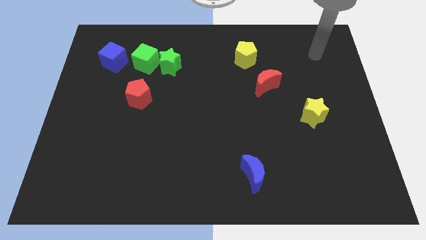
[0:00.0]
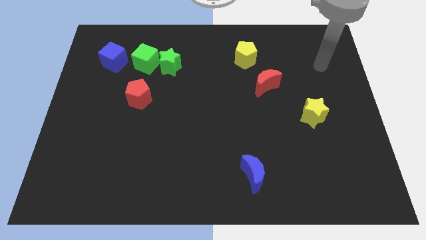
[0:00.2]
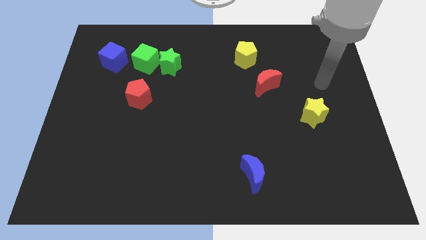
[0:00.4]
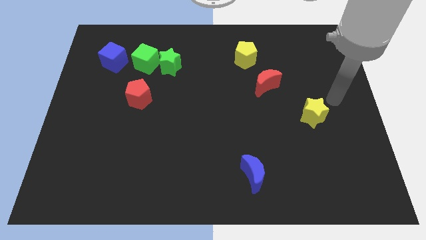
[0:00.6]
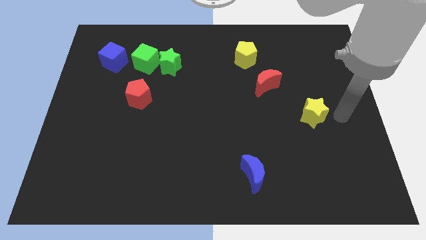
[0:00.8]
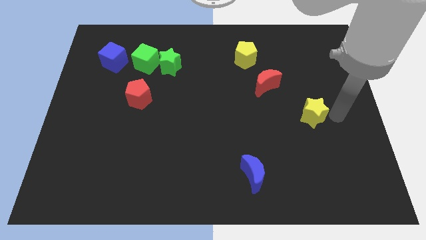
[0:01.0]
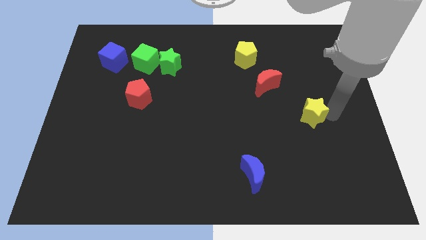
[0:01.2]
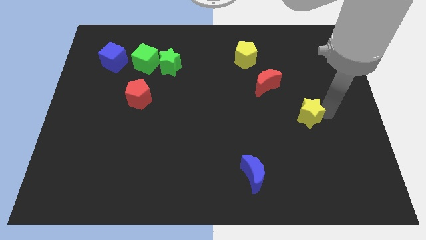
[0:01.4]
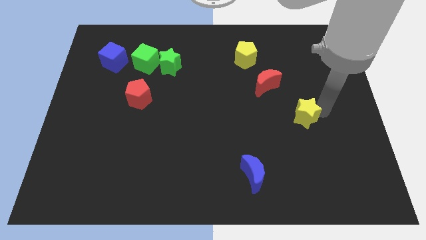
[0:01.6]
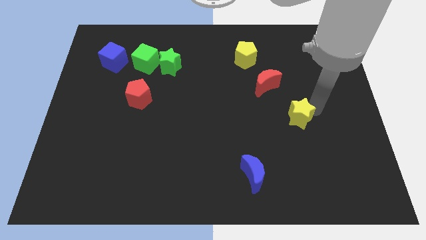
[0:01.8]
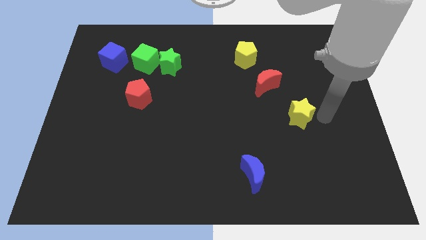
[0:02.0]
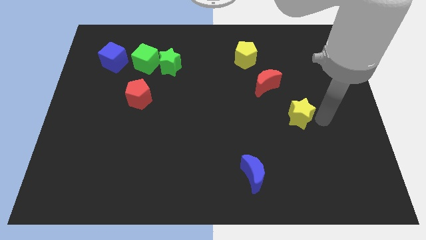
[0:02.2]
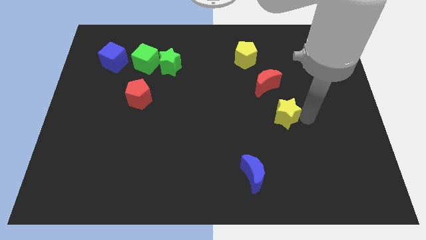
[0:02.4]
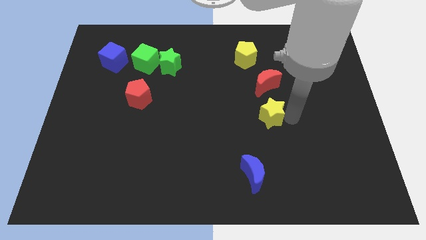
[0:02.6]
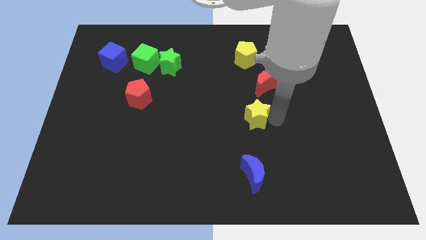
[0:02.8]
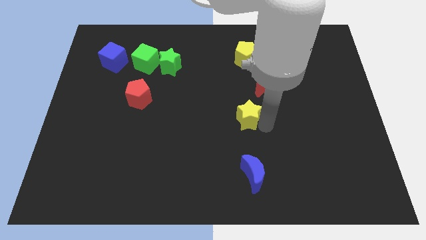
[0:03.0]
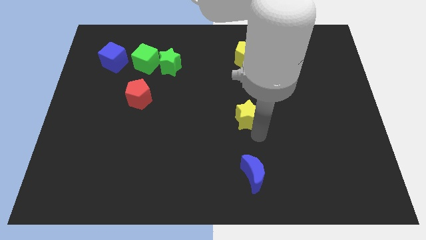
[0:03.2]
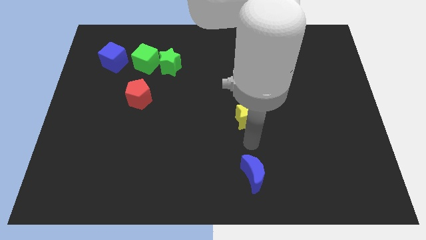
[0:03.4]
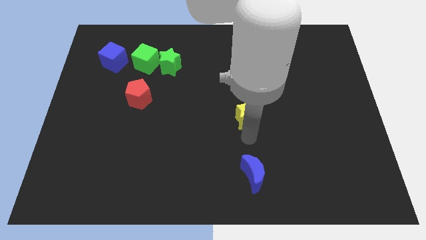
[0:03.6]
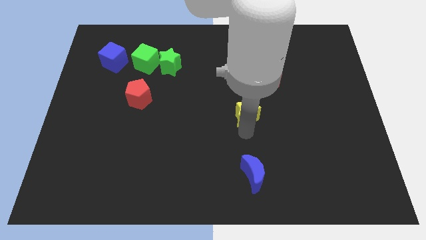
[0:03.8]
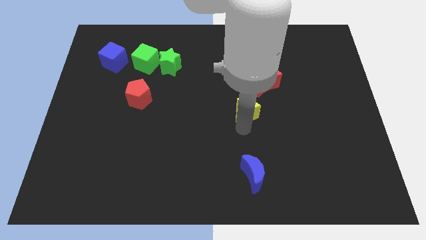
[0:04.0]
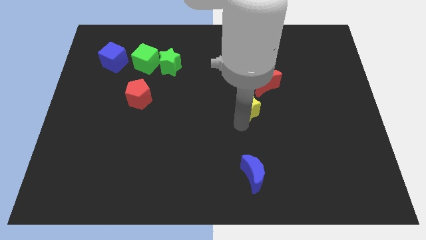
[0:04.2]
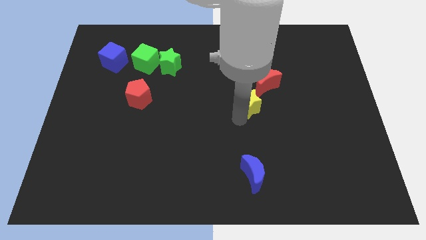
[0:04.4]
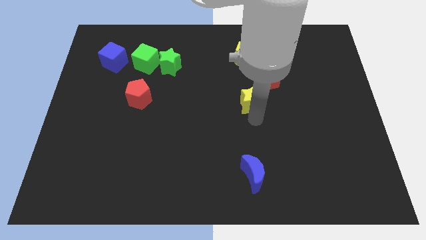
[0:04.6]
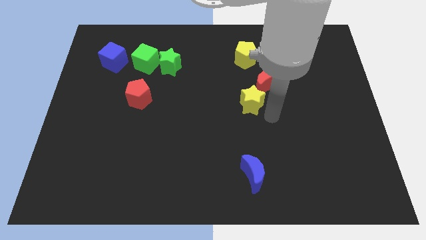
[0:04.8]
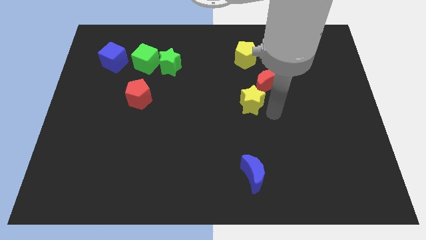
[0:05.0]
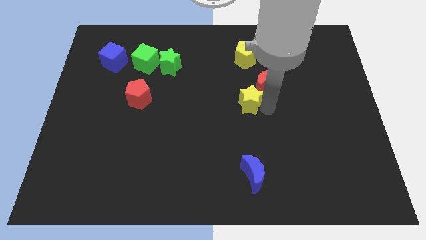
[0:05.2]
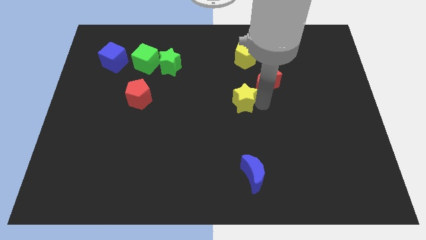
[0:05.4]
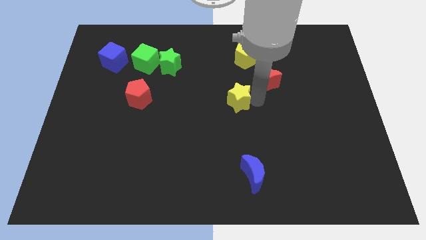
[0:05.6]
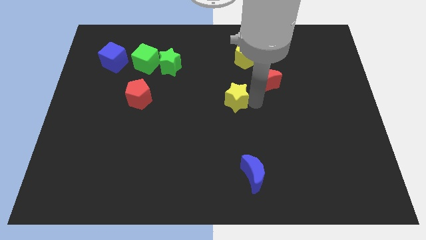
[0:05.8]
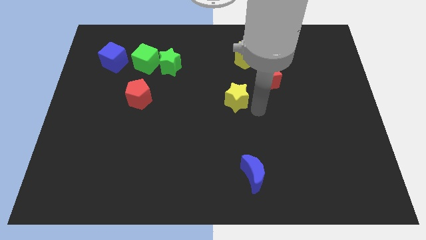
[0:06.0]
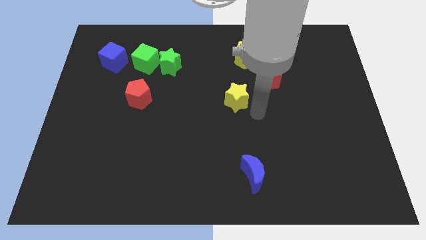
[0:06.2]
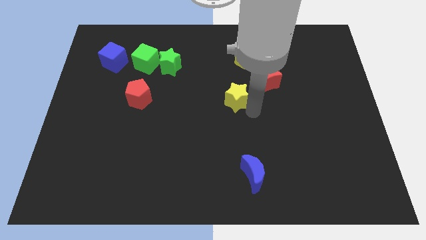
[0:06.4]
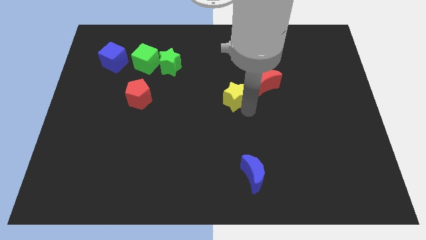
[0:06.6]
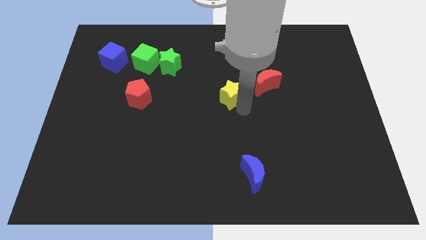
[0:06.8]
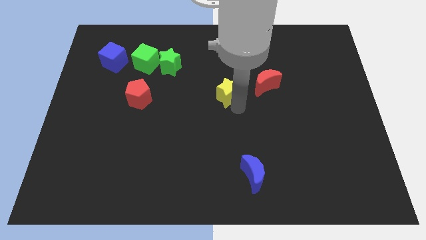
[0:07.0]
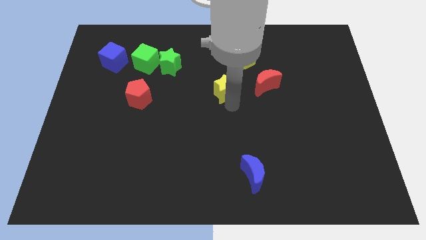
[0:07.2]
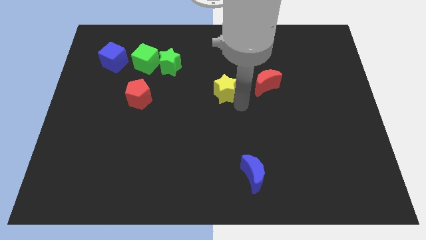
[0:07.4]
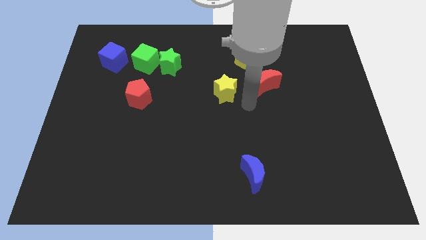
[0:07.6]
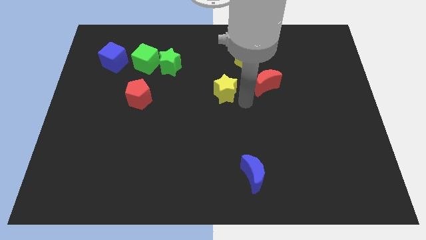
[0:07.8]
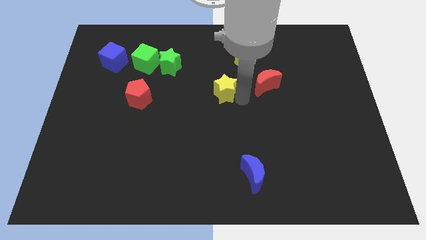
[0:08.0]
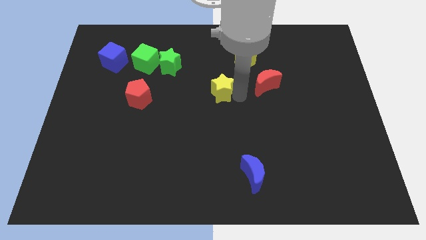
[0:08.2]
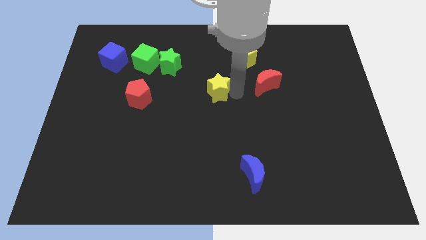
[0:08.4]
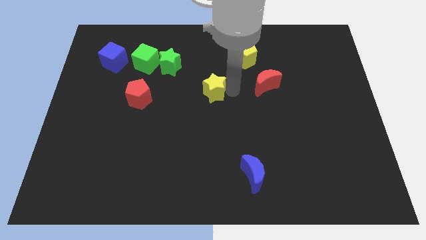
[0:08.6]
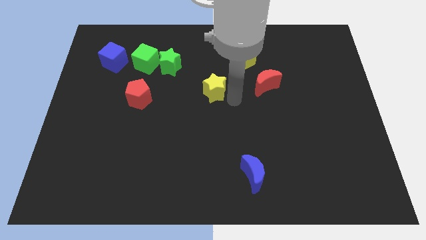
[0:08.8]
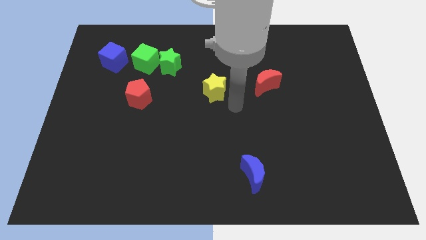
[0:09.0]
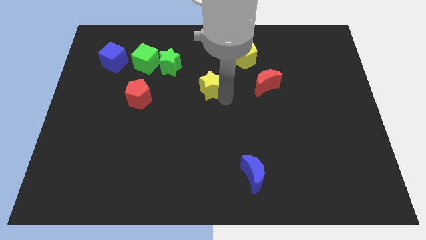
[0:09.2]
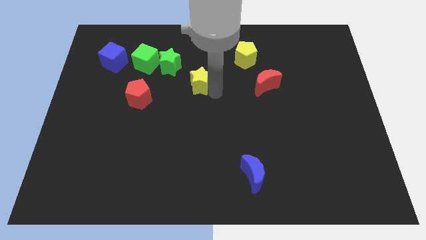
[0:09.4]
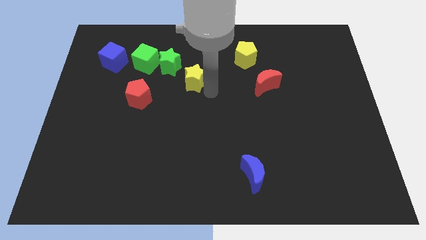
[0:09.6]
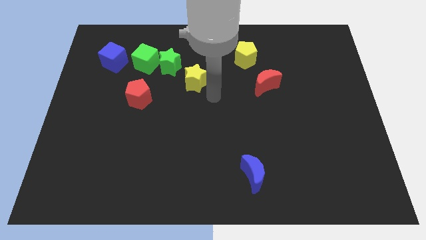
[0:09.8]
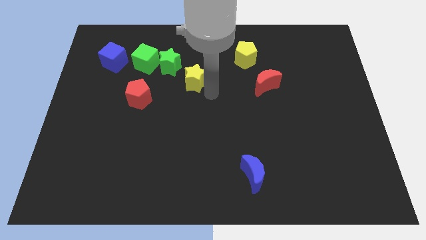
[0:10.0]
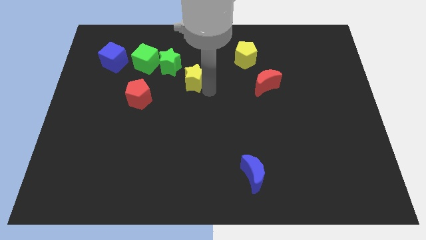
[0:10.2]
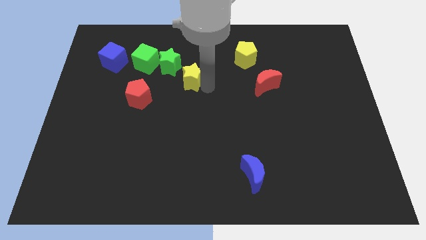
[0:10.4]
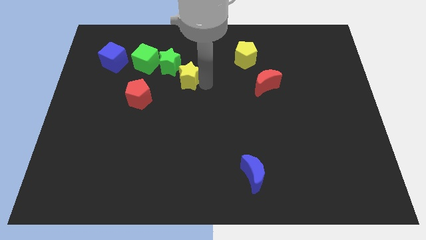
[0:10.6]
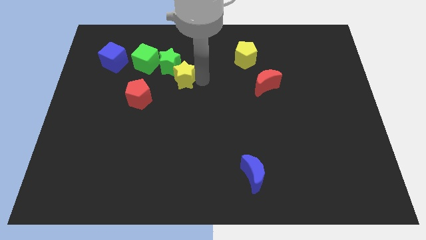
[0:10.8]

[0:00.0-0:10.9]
put the yellow star to the green star

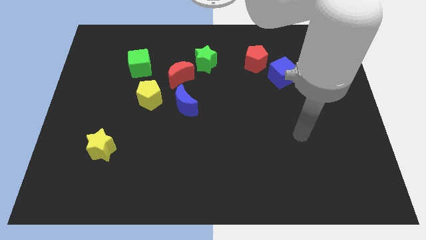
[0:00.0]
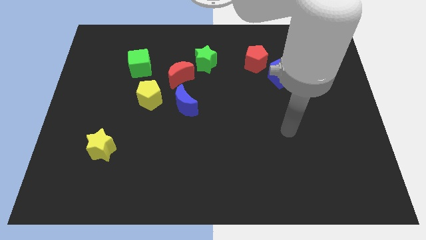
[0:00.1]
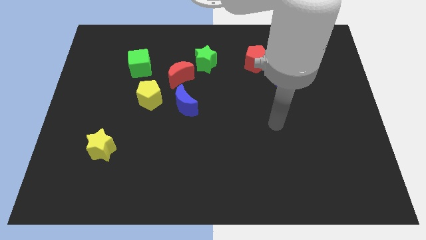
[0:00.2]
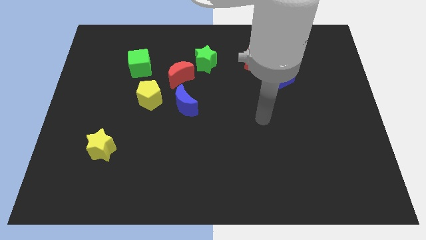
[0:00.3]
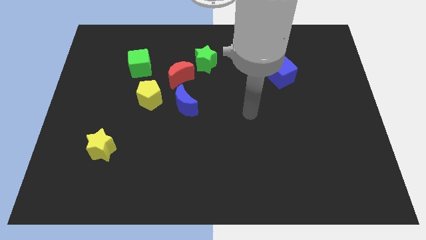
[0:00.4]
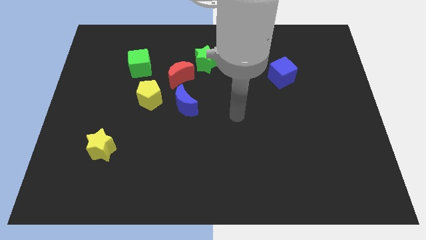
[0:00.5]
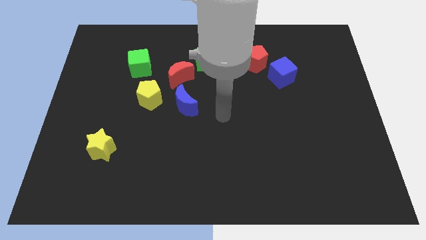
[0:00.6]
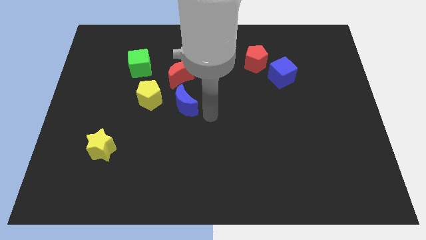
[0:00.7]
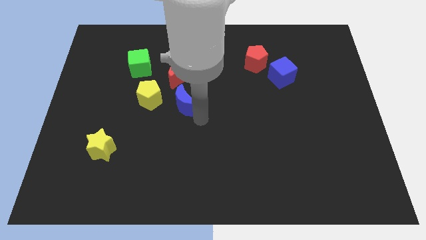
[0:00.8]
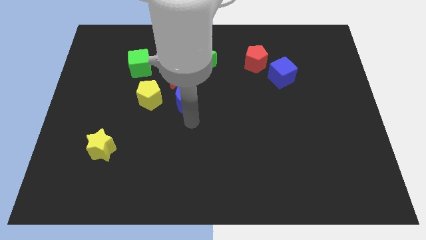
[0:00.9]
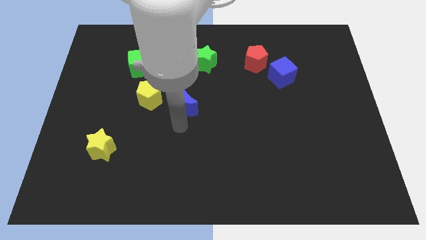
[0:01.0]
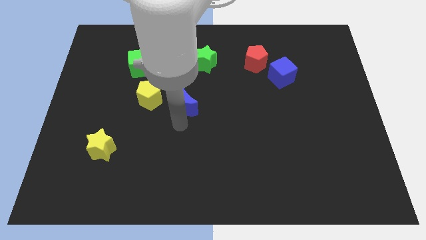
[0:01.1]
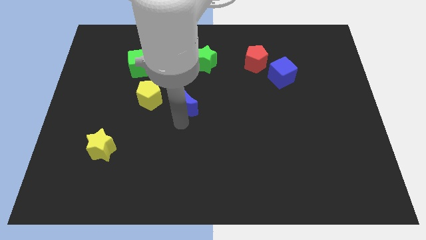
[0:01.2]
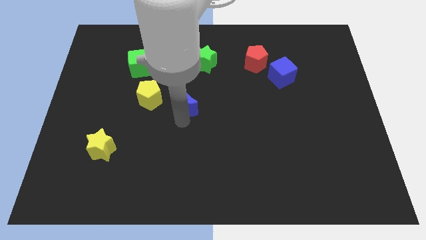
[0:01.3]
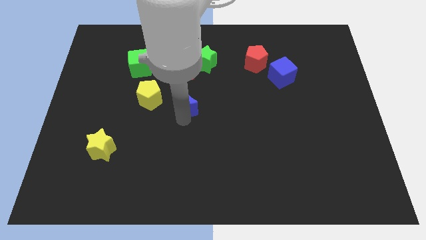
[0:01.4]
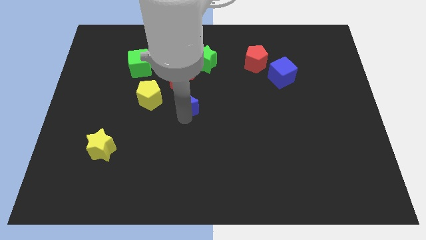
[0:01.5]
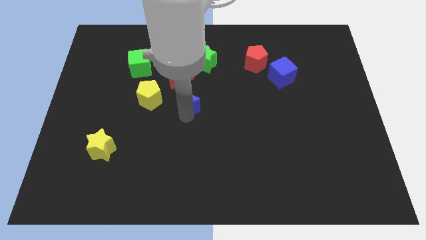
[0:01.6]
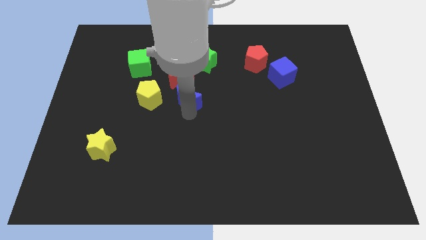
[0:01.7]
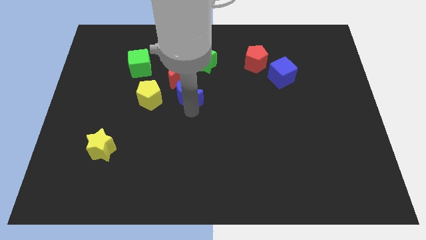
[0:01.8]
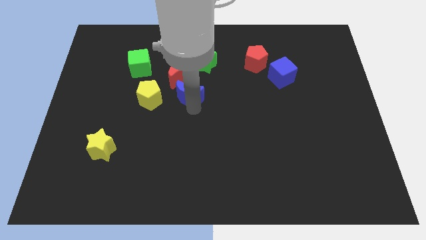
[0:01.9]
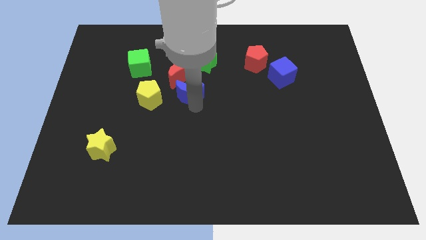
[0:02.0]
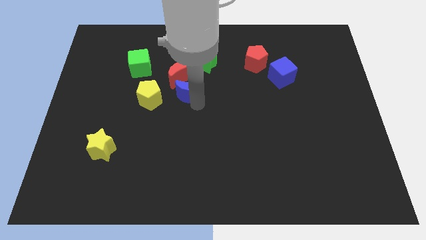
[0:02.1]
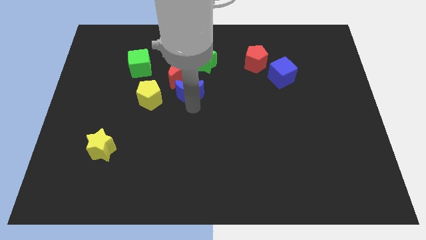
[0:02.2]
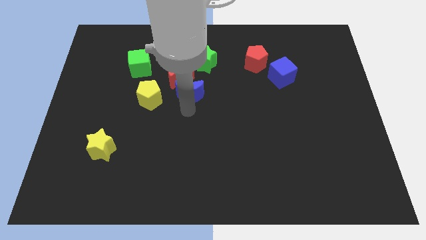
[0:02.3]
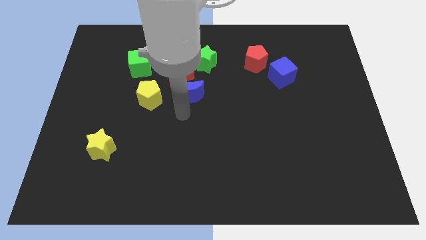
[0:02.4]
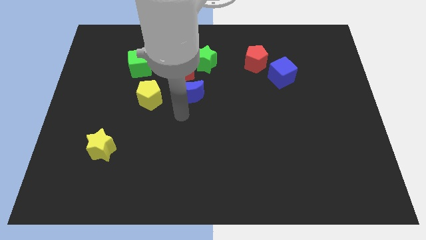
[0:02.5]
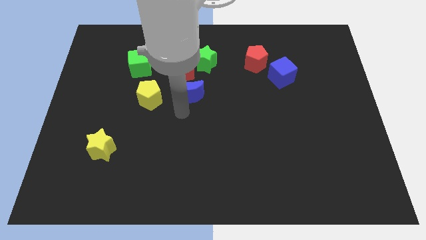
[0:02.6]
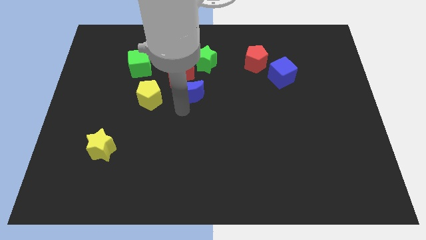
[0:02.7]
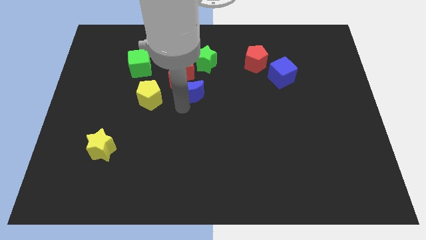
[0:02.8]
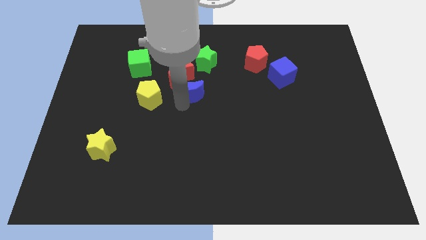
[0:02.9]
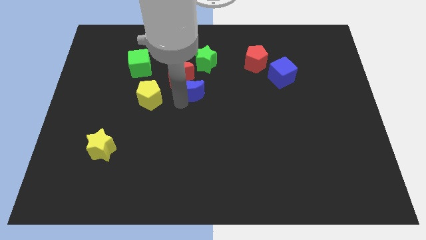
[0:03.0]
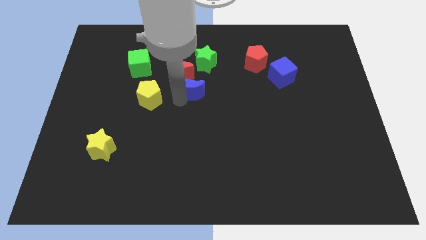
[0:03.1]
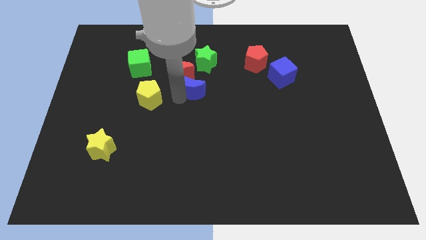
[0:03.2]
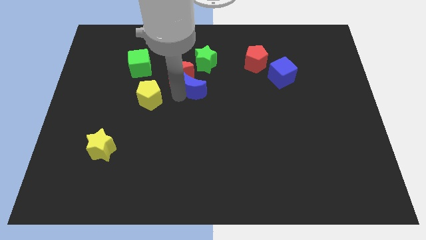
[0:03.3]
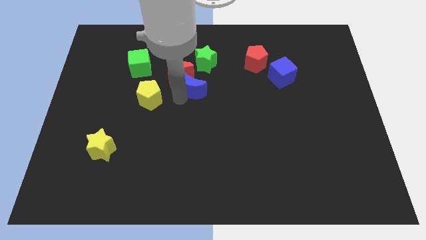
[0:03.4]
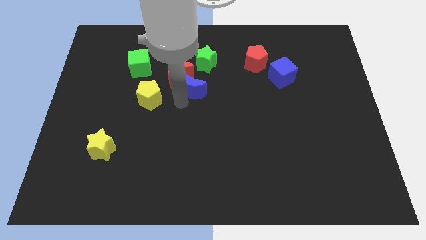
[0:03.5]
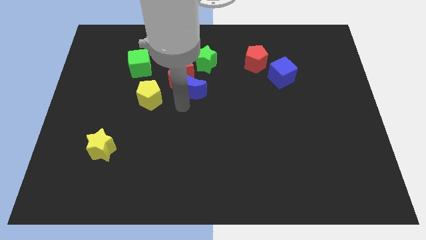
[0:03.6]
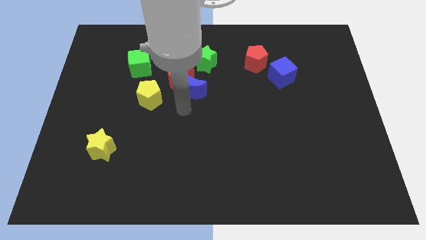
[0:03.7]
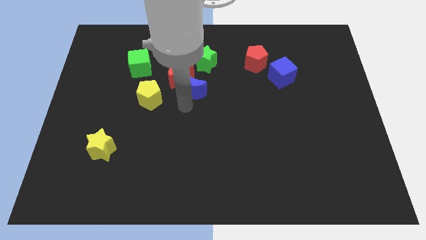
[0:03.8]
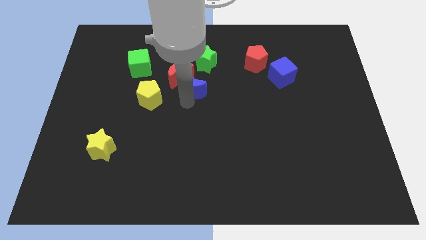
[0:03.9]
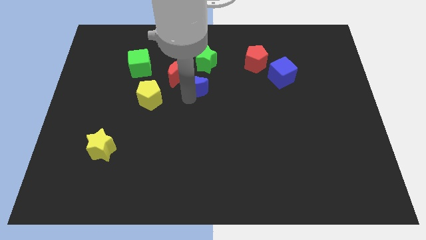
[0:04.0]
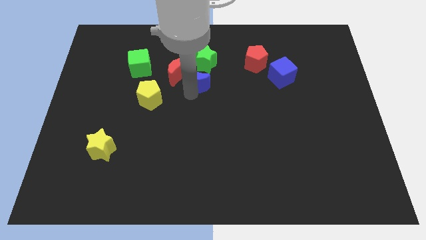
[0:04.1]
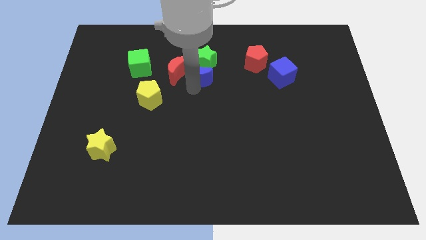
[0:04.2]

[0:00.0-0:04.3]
slide the blue moon to the green star
